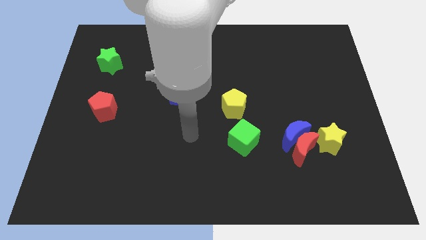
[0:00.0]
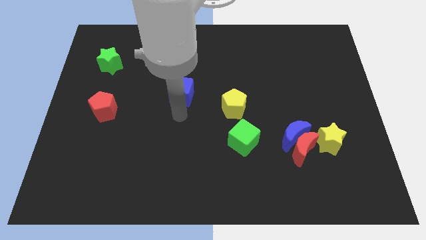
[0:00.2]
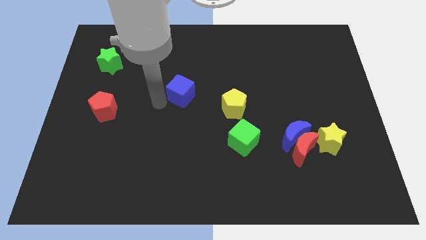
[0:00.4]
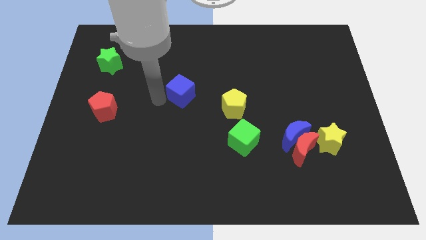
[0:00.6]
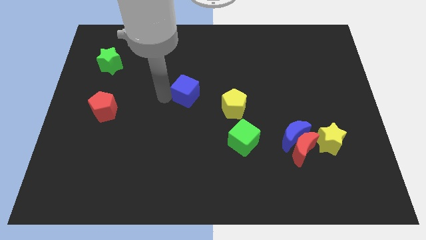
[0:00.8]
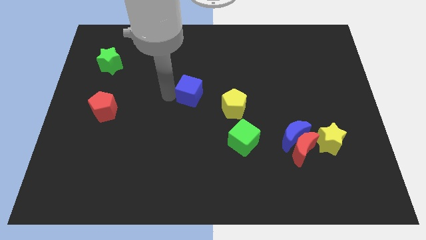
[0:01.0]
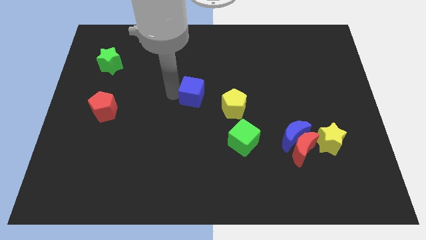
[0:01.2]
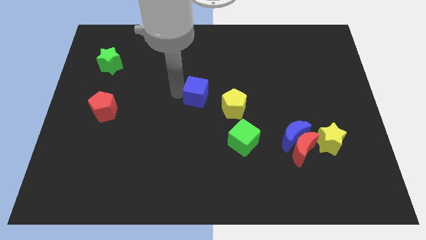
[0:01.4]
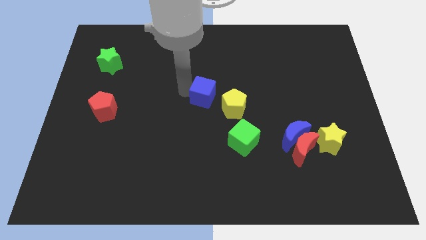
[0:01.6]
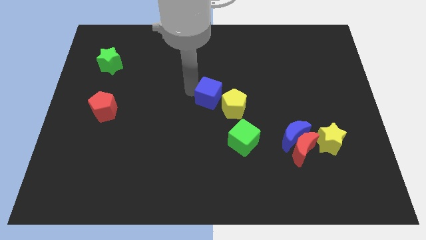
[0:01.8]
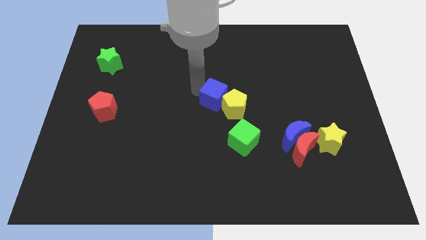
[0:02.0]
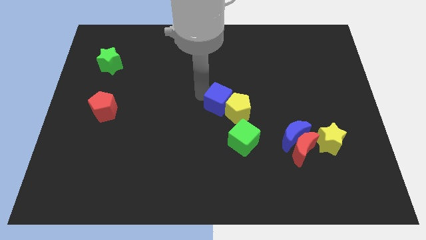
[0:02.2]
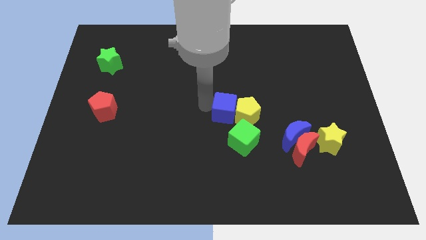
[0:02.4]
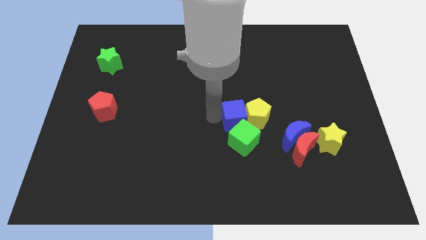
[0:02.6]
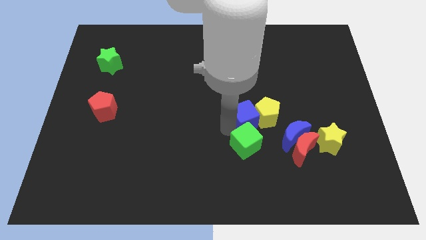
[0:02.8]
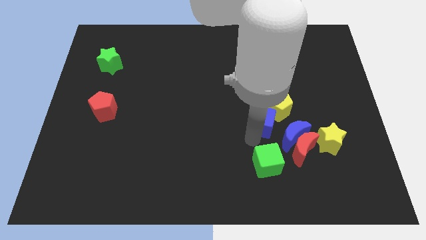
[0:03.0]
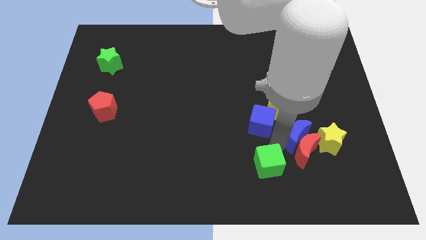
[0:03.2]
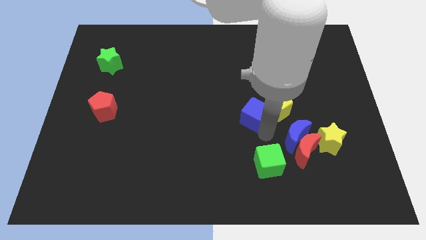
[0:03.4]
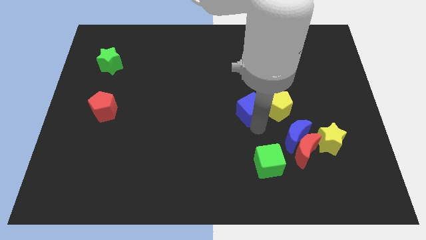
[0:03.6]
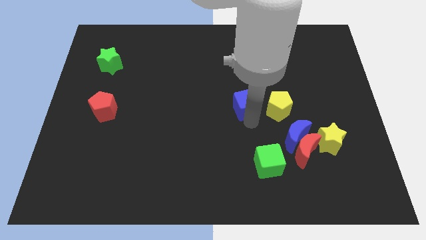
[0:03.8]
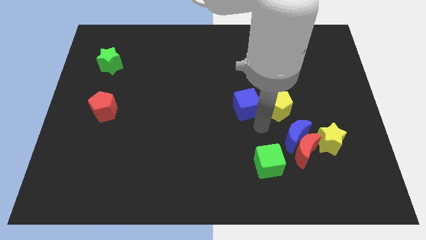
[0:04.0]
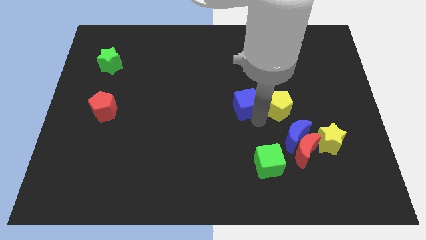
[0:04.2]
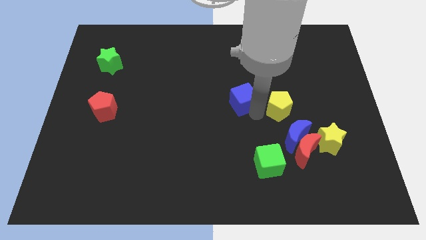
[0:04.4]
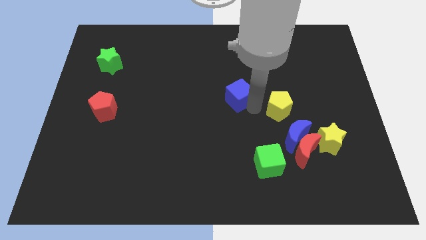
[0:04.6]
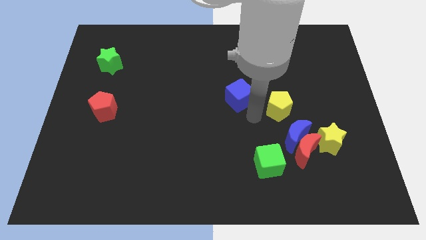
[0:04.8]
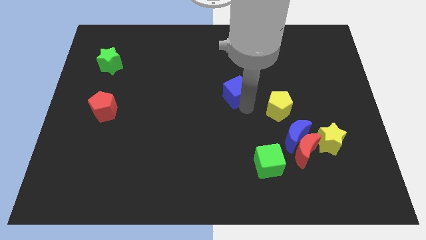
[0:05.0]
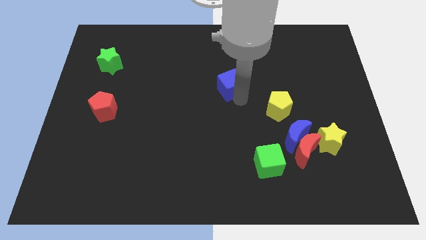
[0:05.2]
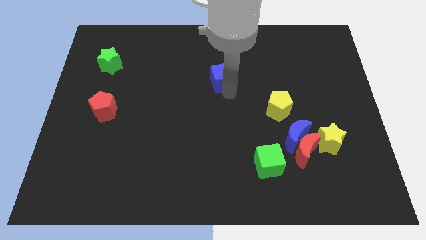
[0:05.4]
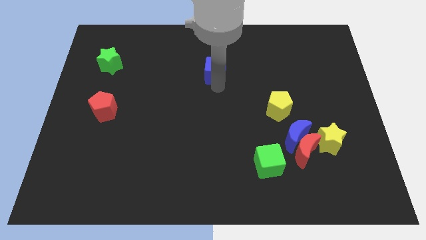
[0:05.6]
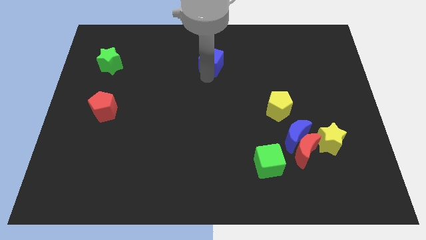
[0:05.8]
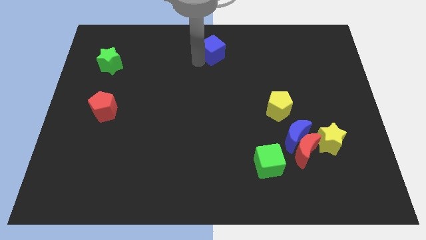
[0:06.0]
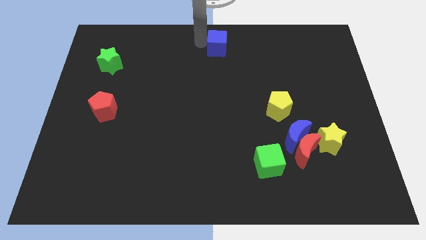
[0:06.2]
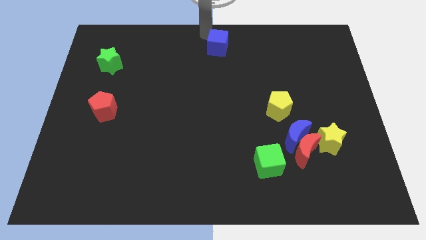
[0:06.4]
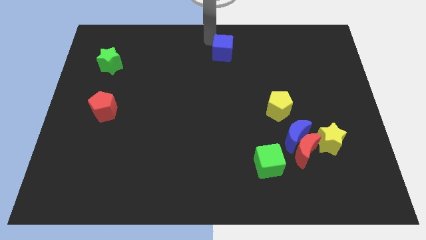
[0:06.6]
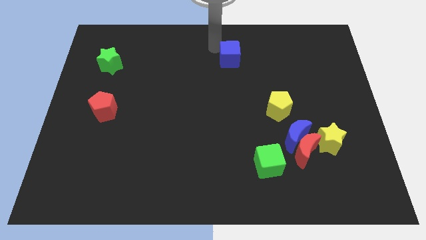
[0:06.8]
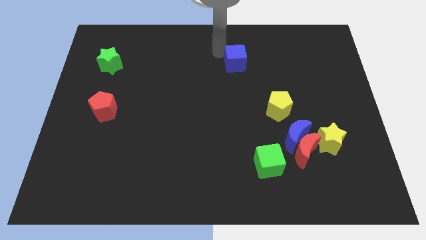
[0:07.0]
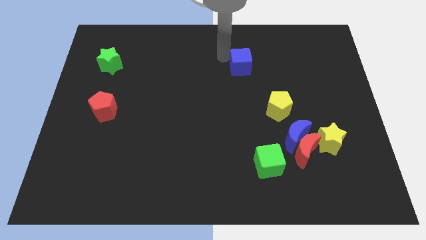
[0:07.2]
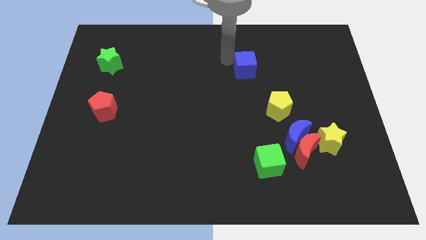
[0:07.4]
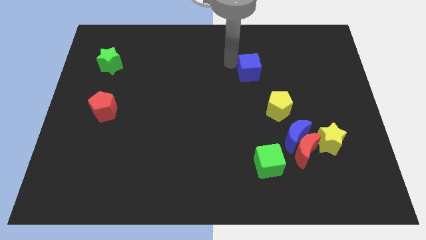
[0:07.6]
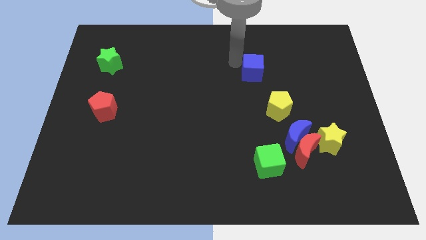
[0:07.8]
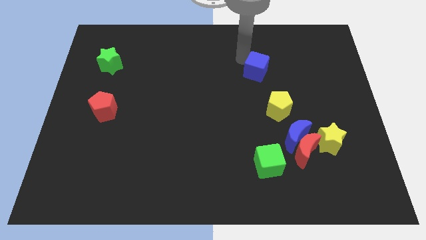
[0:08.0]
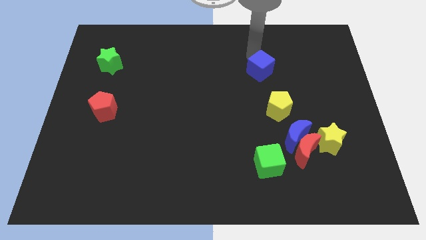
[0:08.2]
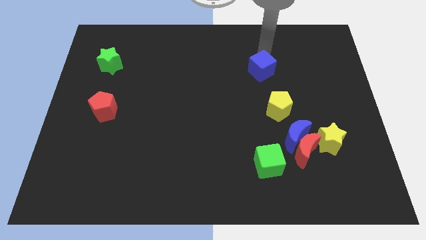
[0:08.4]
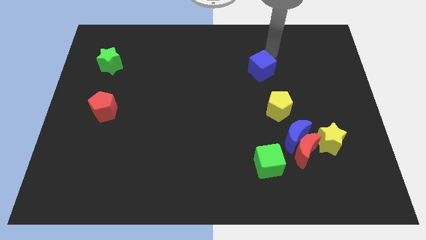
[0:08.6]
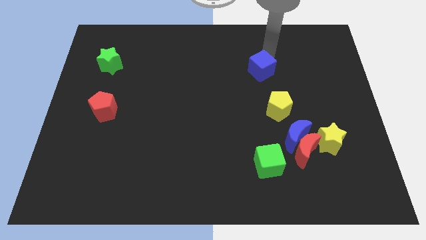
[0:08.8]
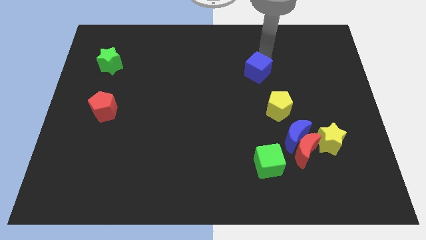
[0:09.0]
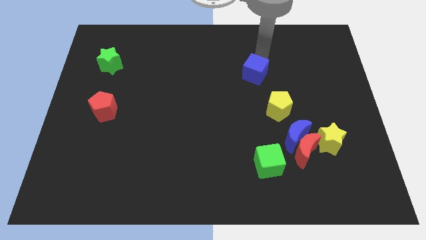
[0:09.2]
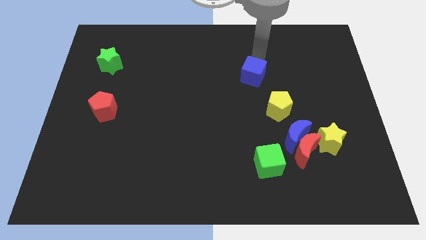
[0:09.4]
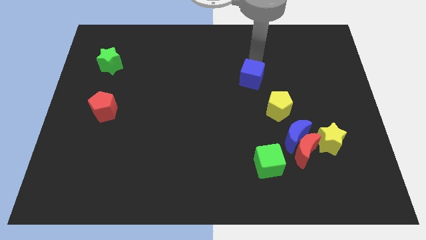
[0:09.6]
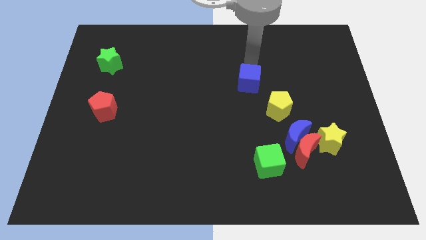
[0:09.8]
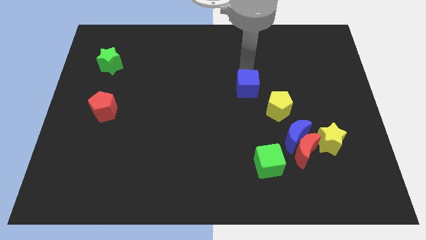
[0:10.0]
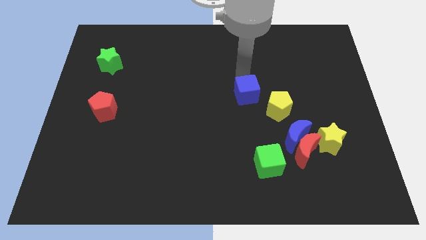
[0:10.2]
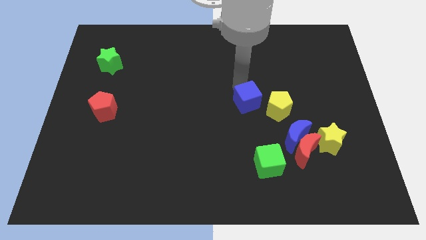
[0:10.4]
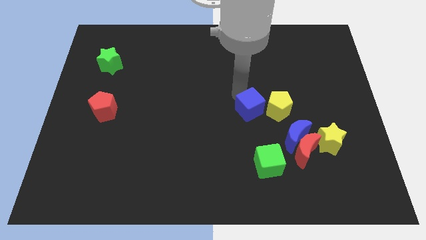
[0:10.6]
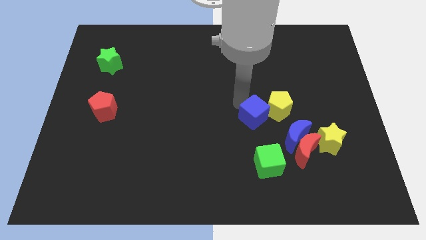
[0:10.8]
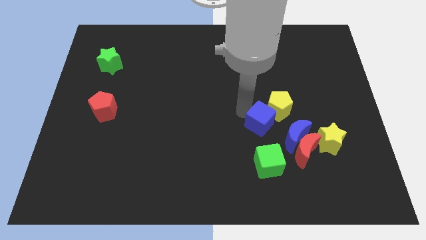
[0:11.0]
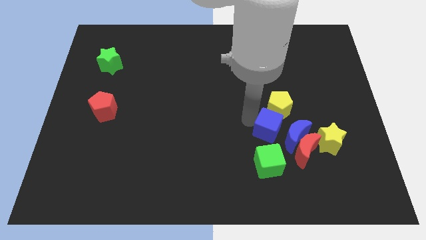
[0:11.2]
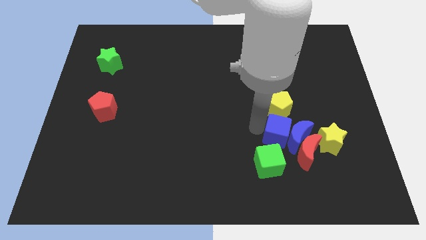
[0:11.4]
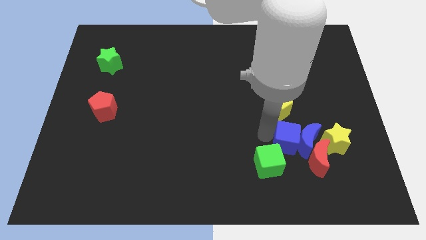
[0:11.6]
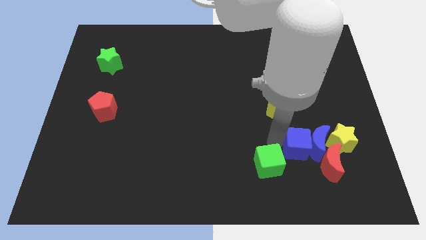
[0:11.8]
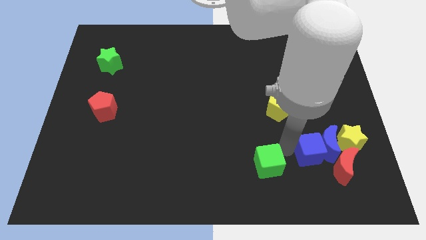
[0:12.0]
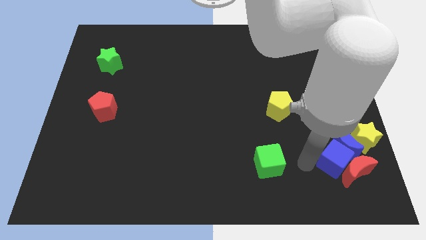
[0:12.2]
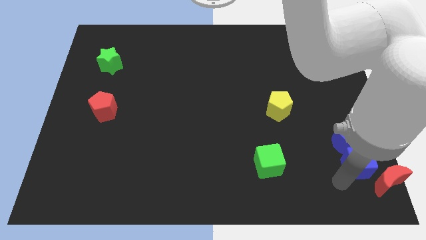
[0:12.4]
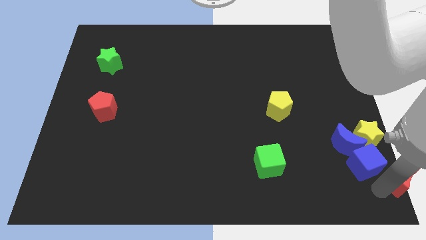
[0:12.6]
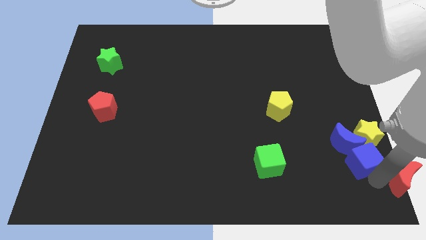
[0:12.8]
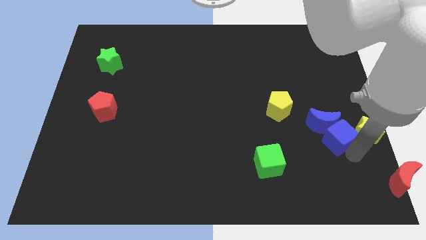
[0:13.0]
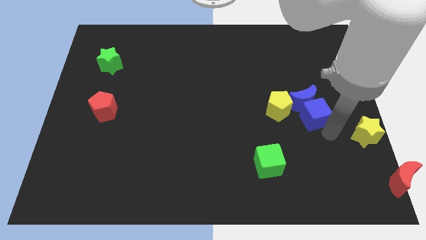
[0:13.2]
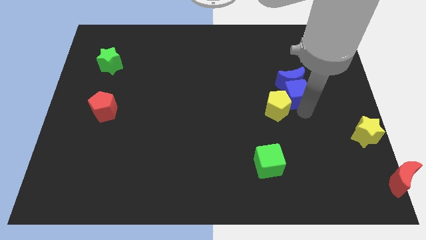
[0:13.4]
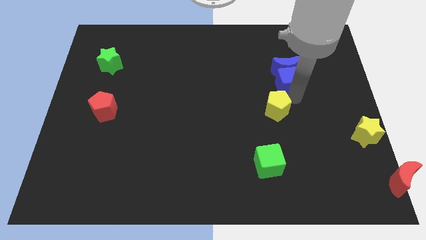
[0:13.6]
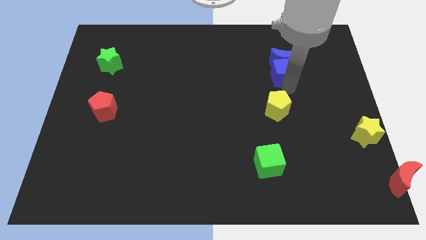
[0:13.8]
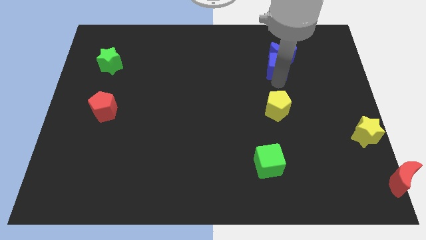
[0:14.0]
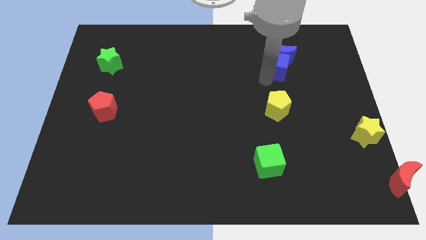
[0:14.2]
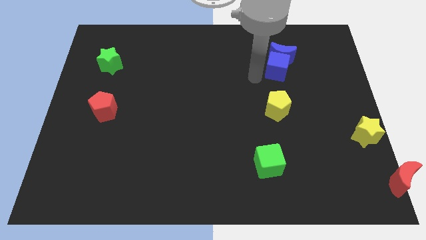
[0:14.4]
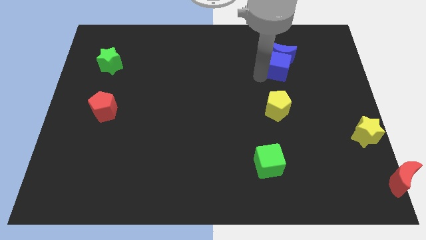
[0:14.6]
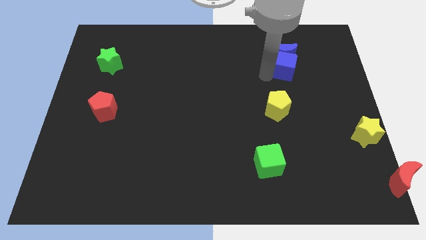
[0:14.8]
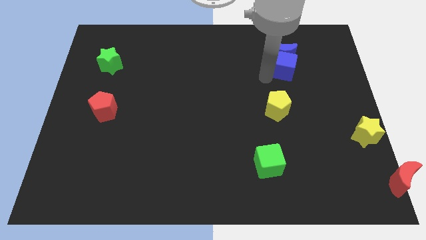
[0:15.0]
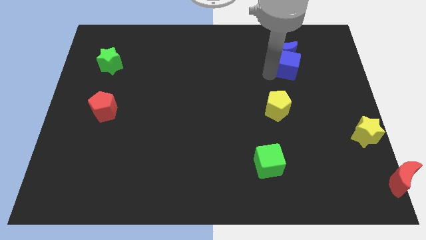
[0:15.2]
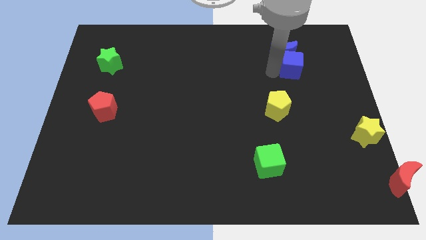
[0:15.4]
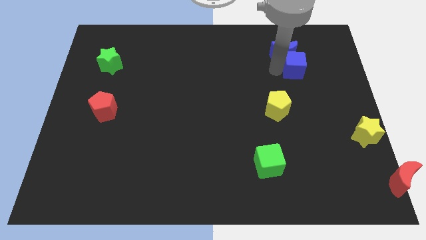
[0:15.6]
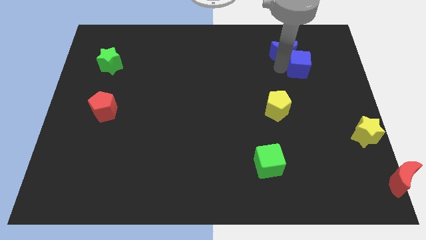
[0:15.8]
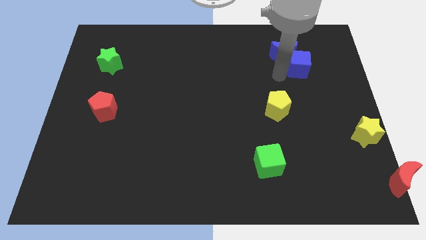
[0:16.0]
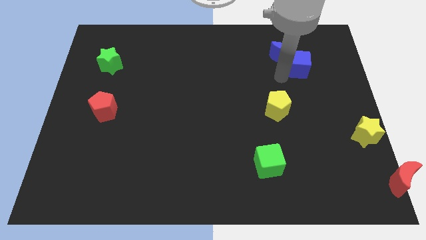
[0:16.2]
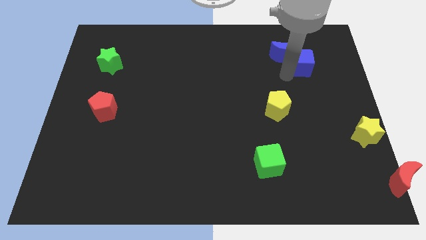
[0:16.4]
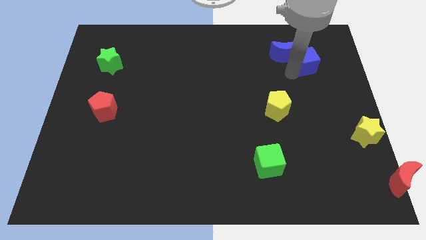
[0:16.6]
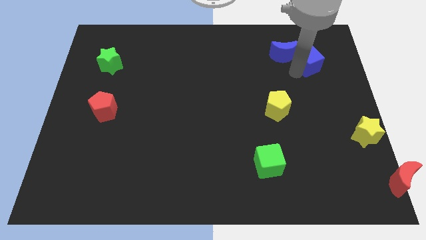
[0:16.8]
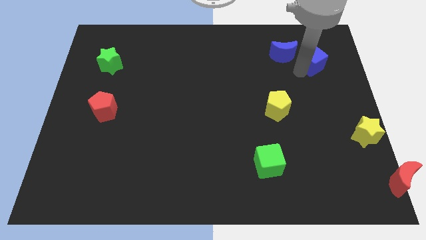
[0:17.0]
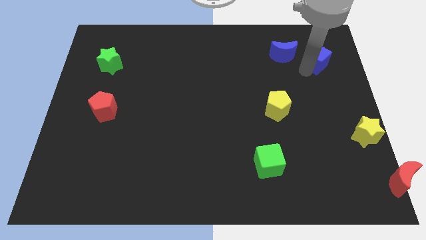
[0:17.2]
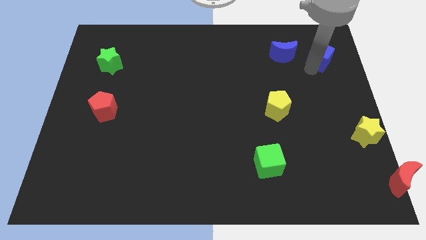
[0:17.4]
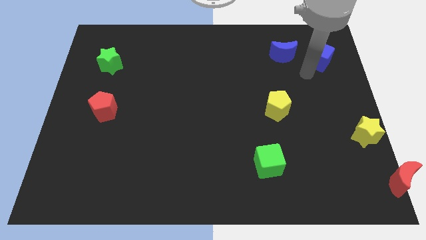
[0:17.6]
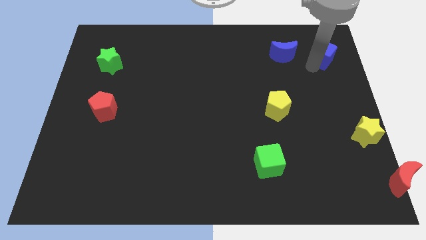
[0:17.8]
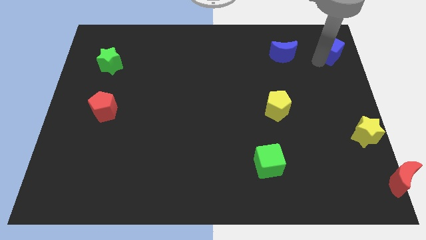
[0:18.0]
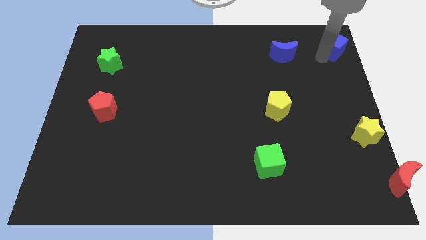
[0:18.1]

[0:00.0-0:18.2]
move the blue cube to the top right corner
